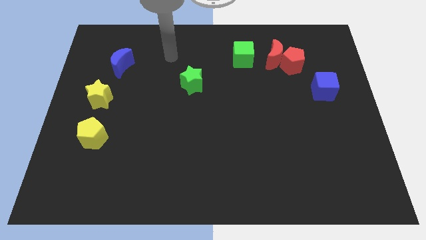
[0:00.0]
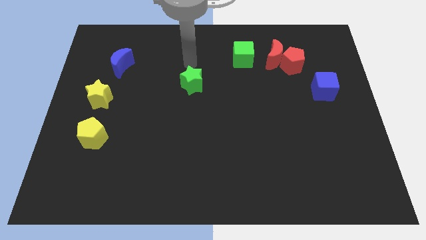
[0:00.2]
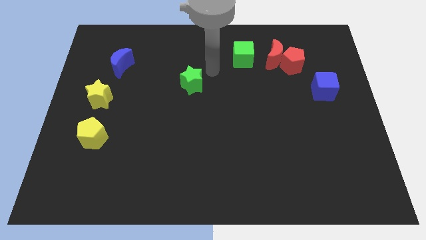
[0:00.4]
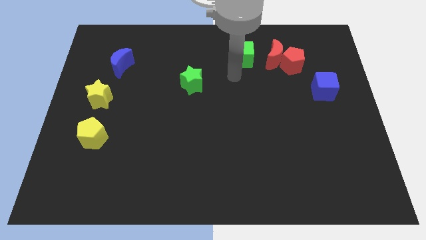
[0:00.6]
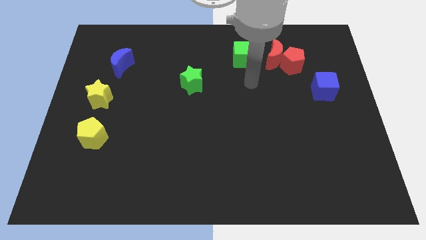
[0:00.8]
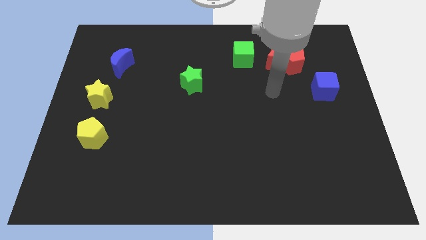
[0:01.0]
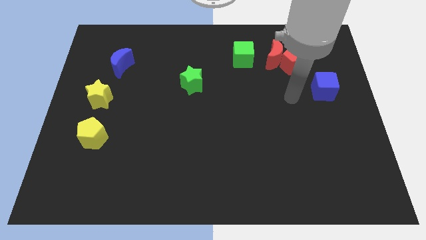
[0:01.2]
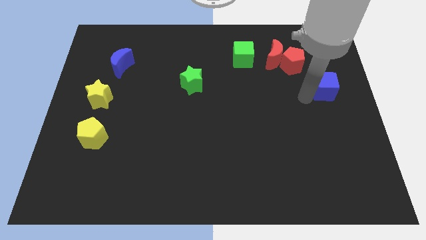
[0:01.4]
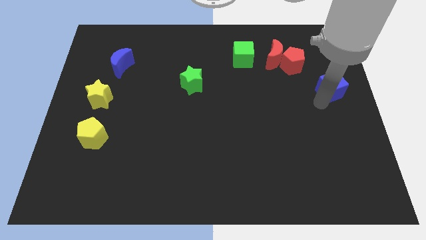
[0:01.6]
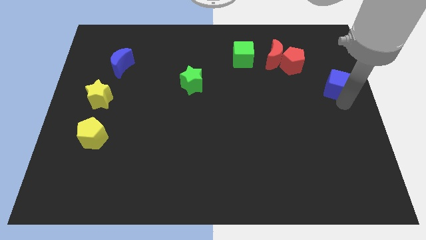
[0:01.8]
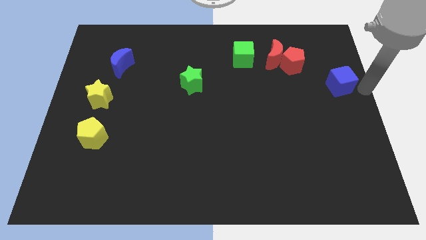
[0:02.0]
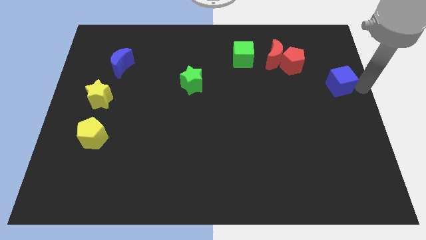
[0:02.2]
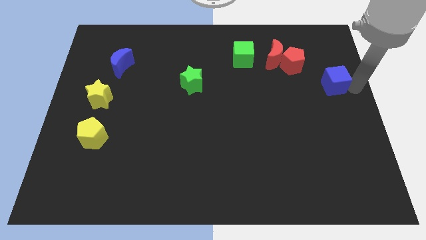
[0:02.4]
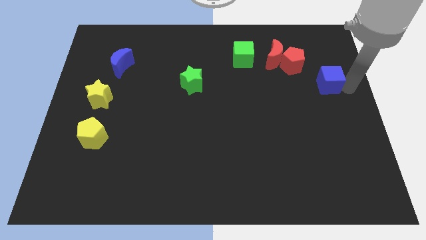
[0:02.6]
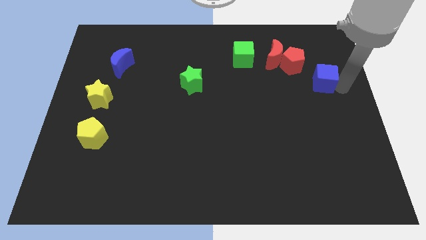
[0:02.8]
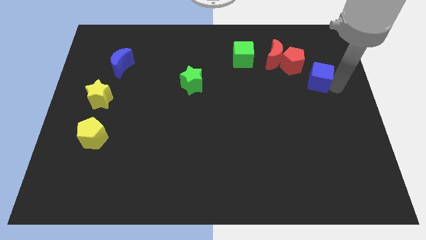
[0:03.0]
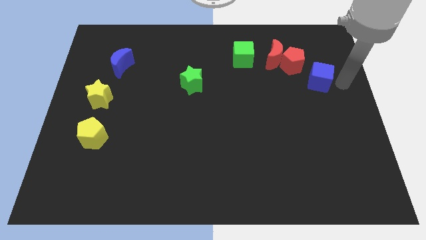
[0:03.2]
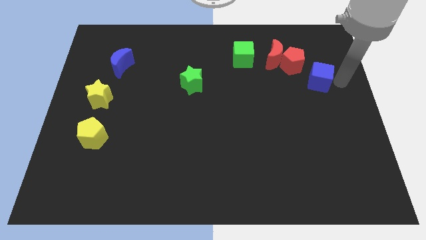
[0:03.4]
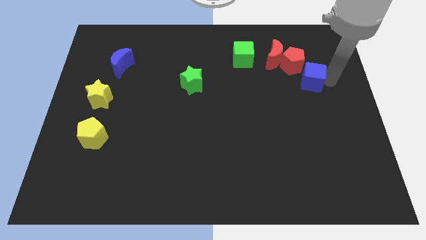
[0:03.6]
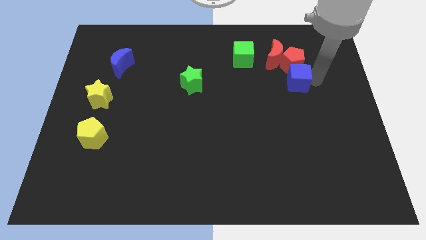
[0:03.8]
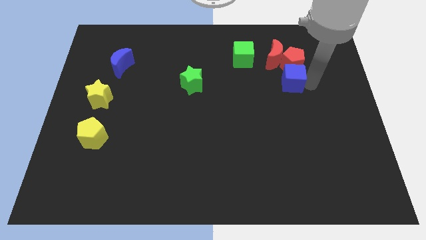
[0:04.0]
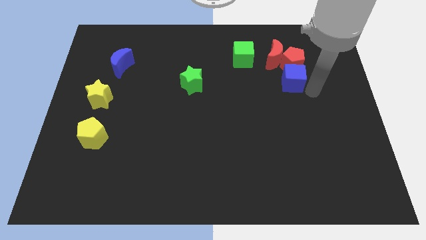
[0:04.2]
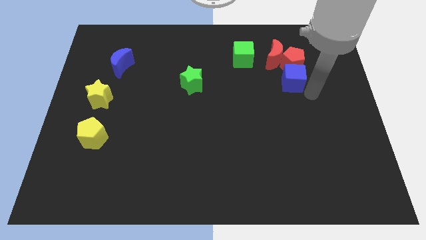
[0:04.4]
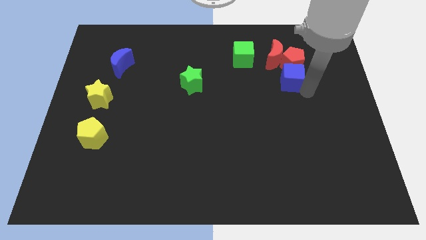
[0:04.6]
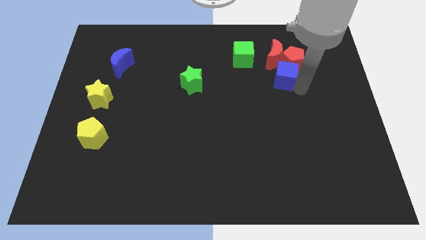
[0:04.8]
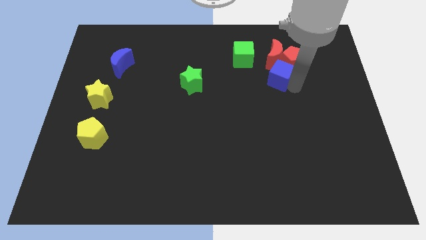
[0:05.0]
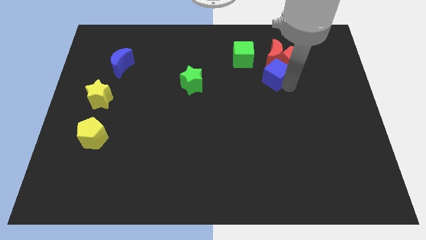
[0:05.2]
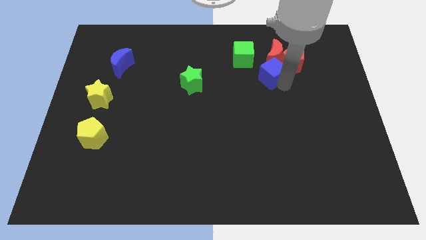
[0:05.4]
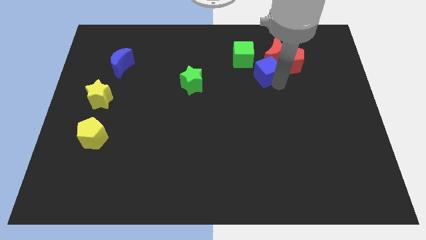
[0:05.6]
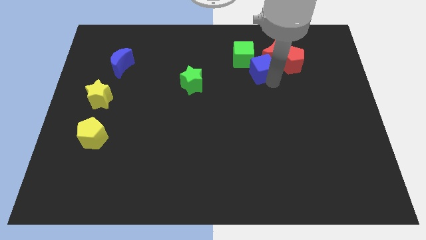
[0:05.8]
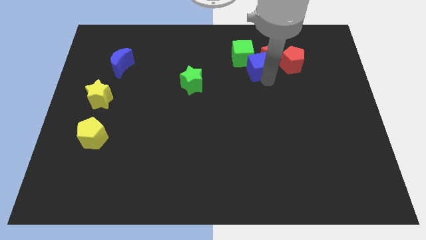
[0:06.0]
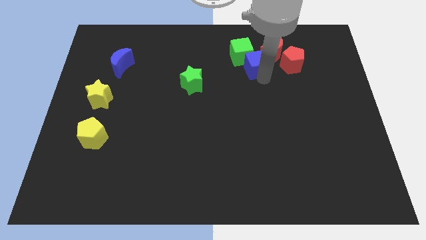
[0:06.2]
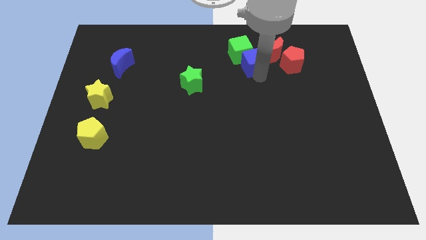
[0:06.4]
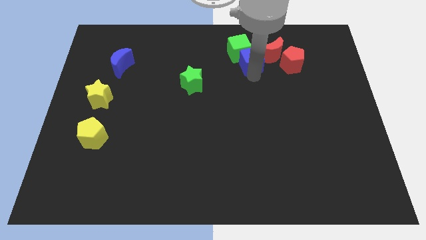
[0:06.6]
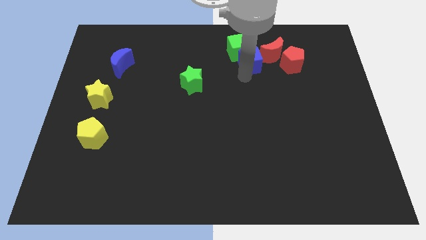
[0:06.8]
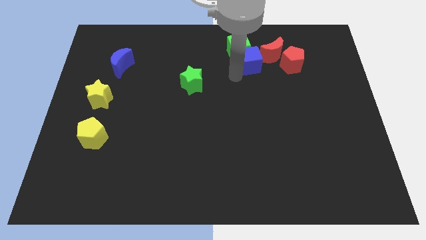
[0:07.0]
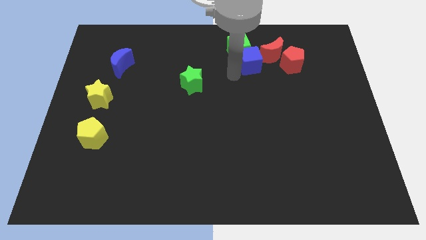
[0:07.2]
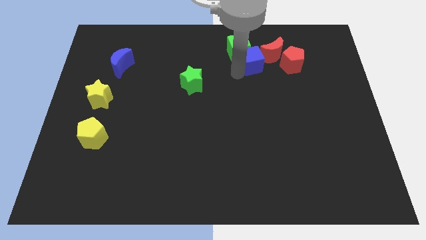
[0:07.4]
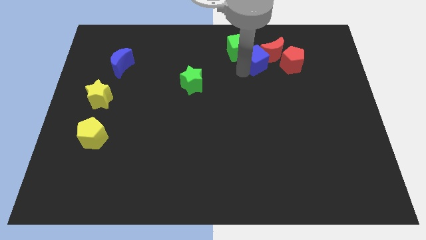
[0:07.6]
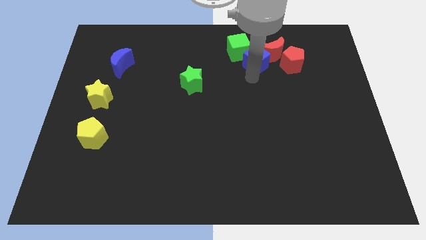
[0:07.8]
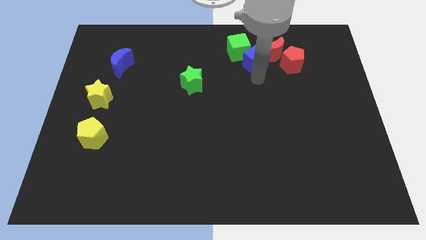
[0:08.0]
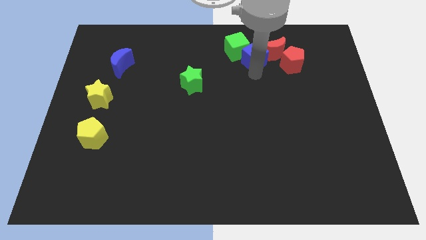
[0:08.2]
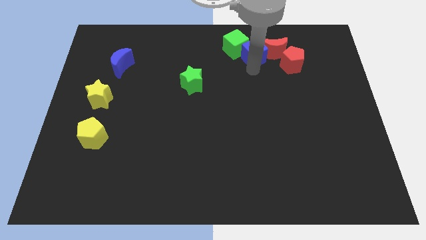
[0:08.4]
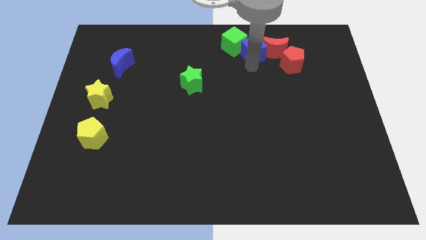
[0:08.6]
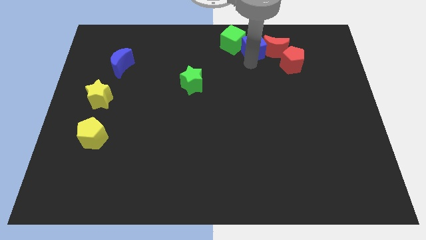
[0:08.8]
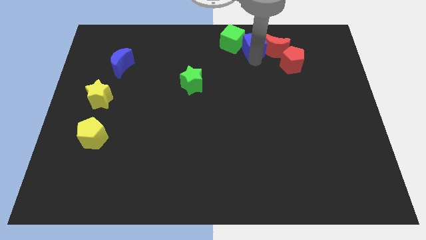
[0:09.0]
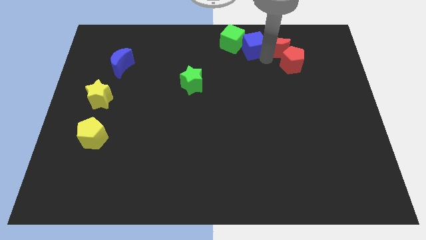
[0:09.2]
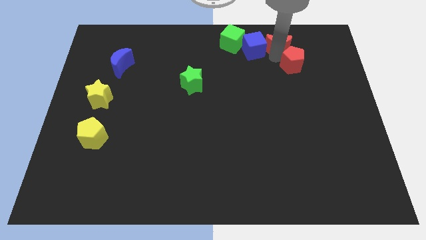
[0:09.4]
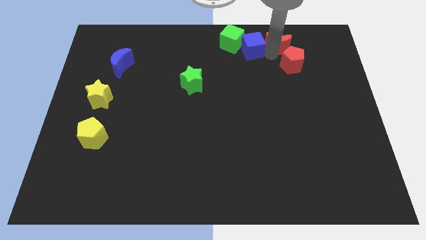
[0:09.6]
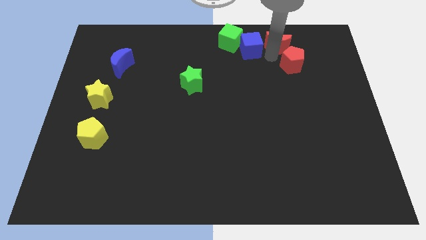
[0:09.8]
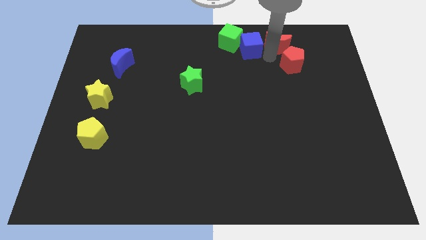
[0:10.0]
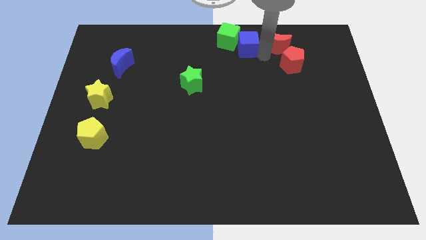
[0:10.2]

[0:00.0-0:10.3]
put the blue cube to the top

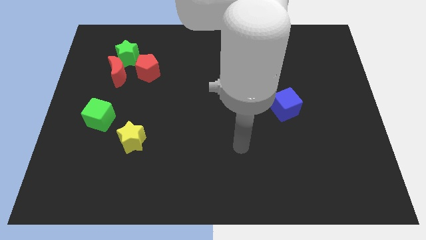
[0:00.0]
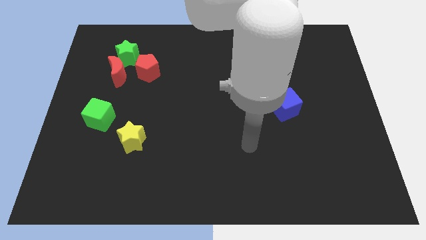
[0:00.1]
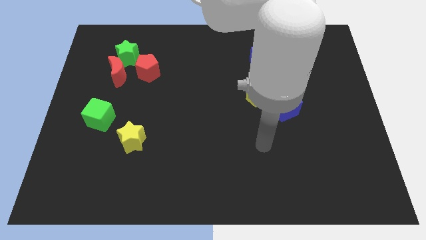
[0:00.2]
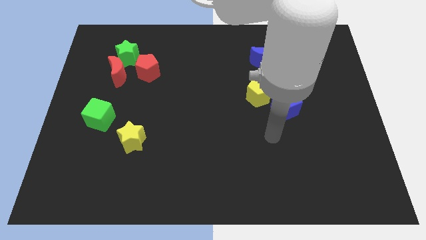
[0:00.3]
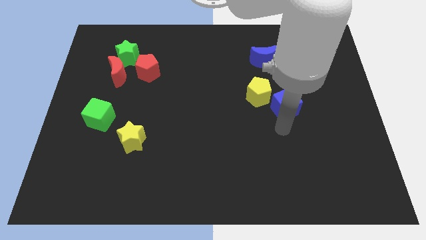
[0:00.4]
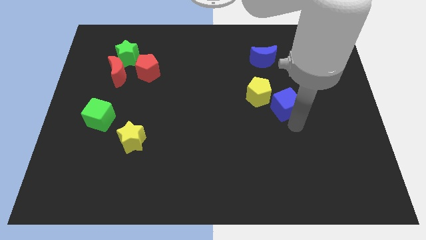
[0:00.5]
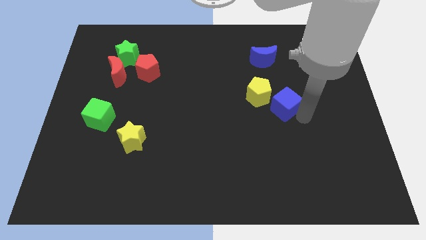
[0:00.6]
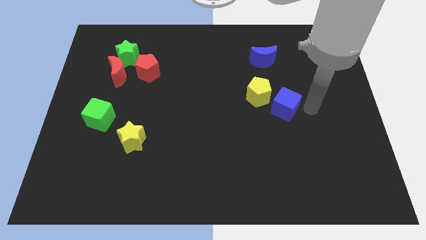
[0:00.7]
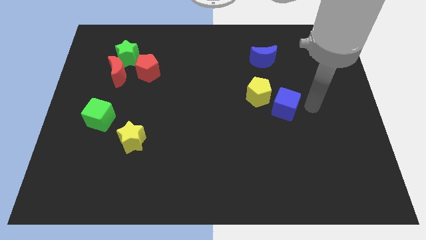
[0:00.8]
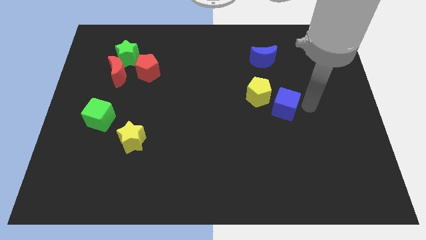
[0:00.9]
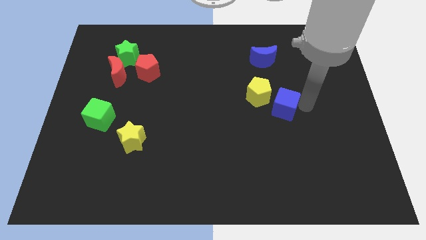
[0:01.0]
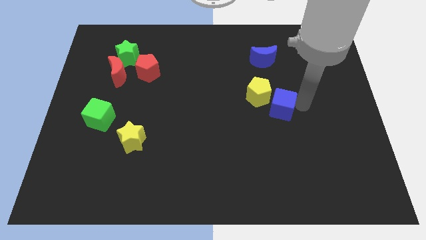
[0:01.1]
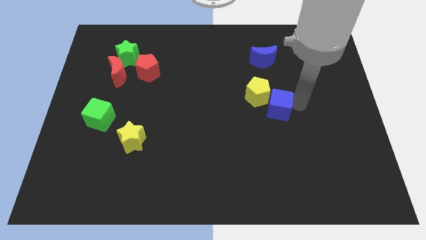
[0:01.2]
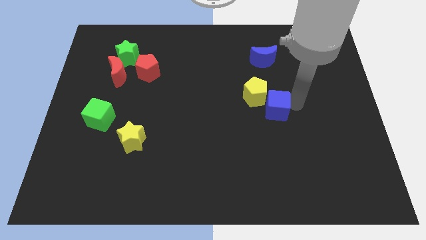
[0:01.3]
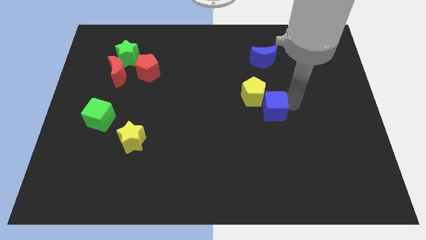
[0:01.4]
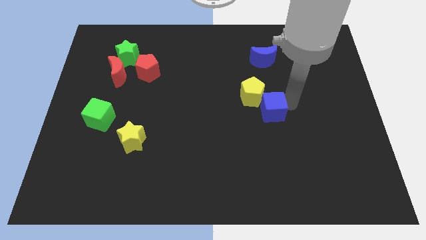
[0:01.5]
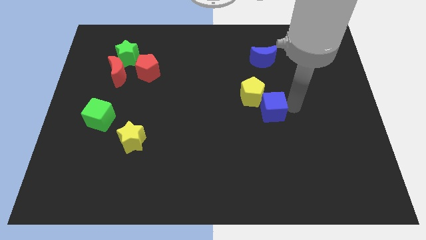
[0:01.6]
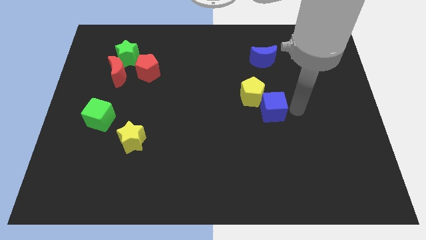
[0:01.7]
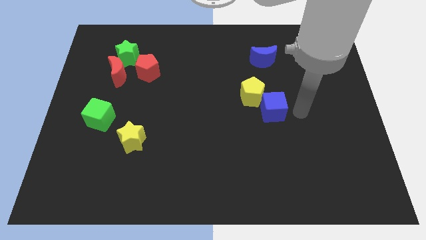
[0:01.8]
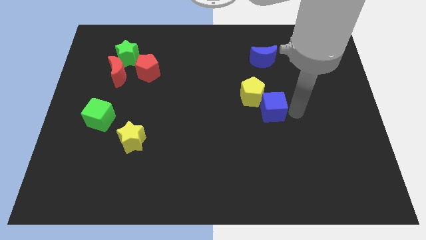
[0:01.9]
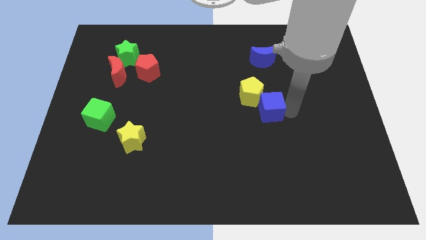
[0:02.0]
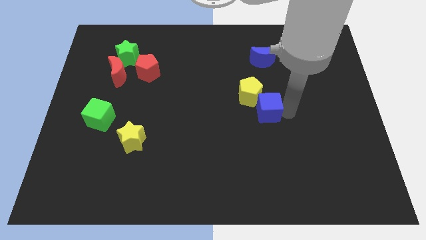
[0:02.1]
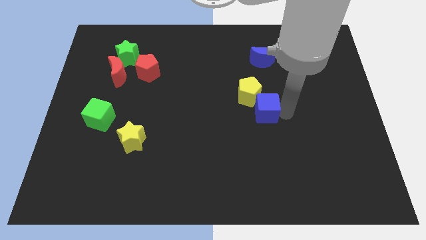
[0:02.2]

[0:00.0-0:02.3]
push the blue cube to the middle of the board
